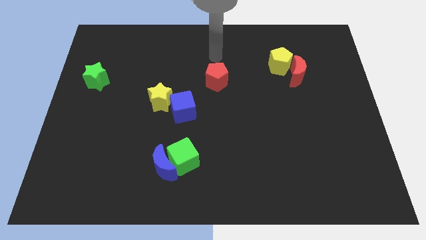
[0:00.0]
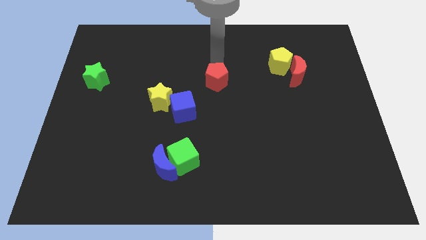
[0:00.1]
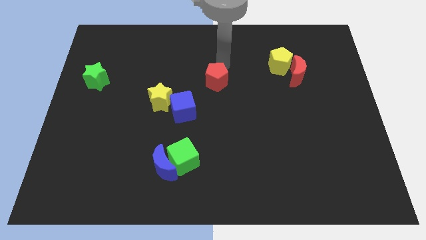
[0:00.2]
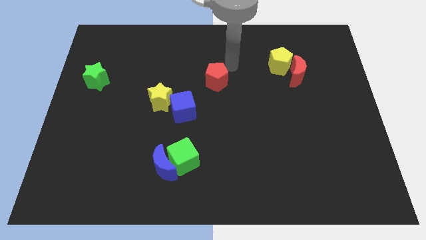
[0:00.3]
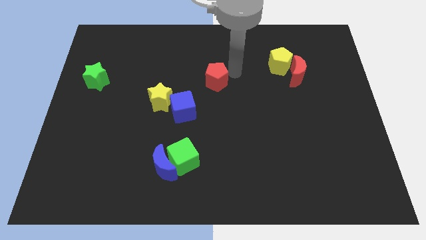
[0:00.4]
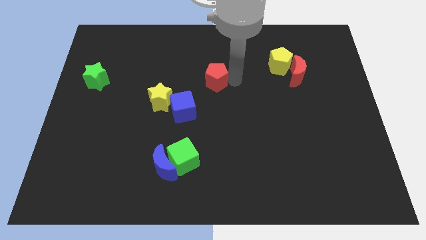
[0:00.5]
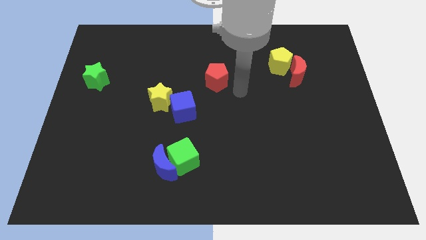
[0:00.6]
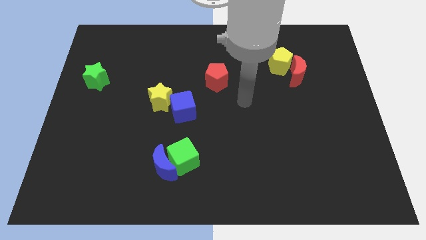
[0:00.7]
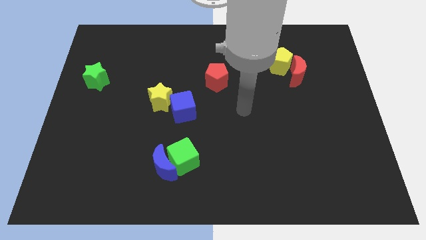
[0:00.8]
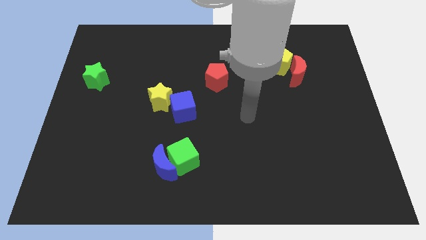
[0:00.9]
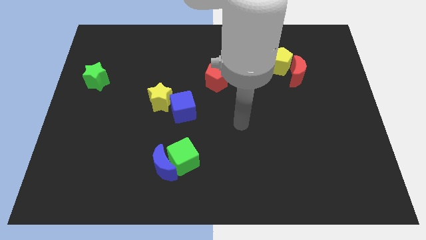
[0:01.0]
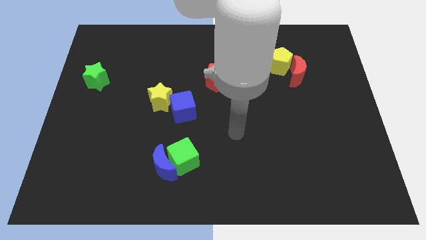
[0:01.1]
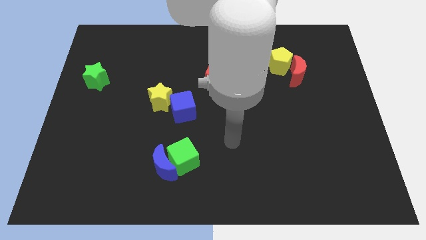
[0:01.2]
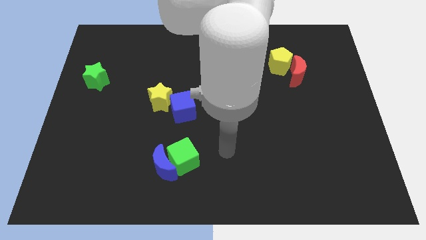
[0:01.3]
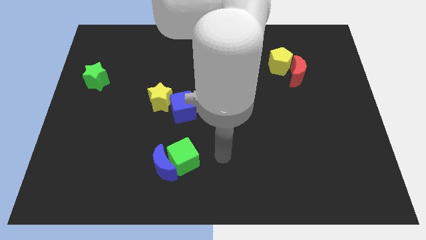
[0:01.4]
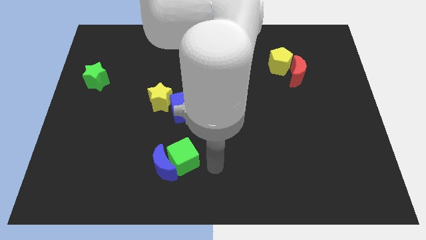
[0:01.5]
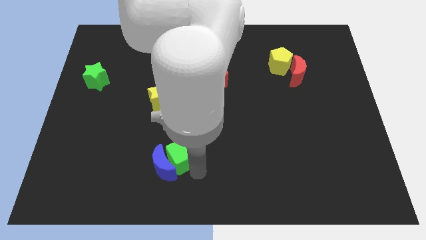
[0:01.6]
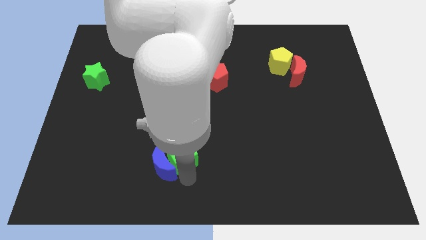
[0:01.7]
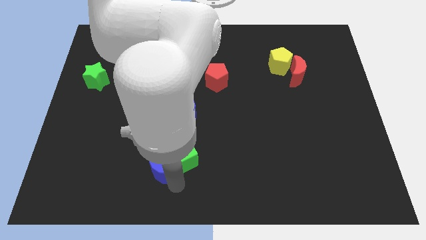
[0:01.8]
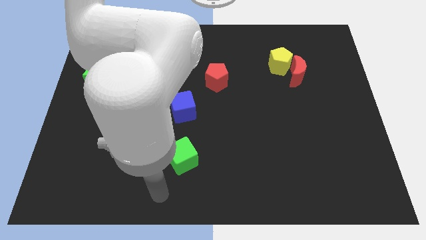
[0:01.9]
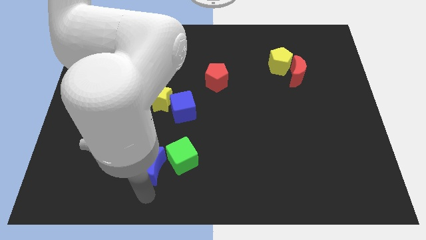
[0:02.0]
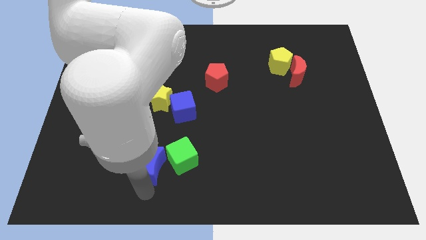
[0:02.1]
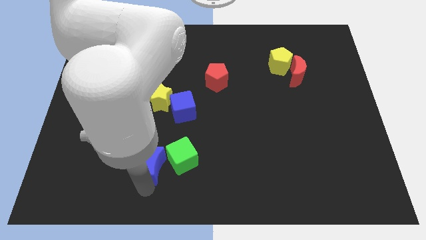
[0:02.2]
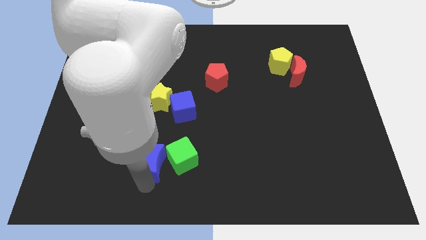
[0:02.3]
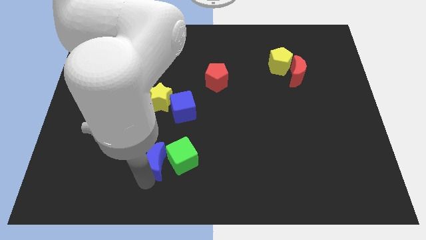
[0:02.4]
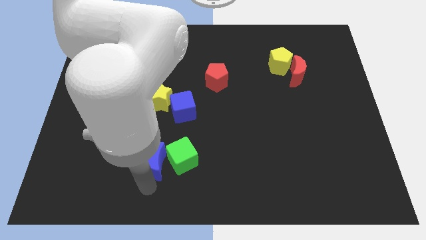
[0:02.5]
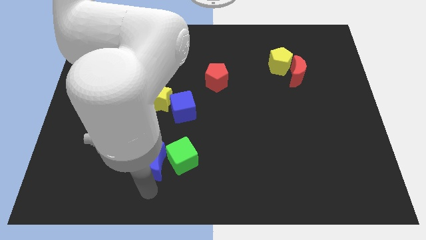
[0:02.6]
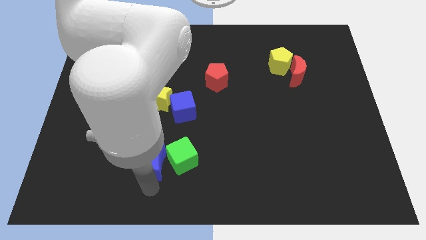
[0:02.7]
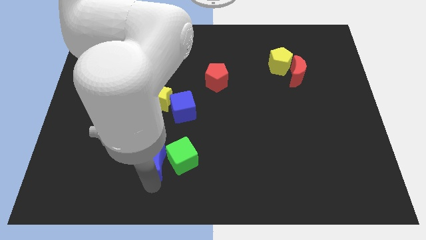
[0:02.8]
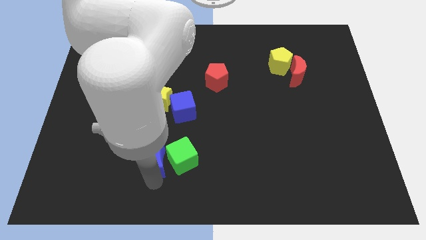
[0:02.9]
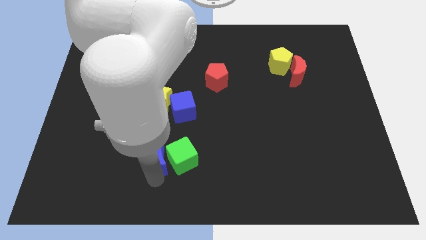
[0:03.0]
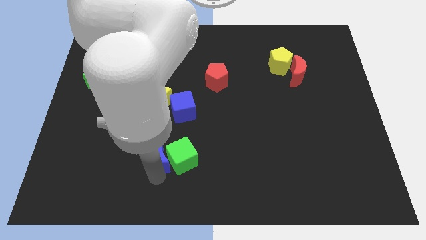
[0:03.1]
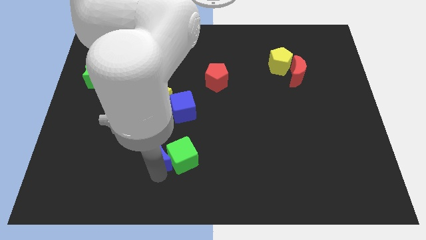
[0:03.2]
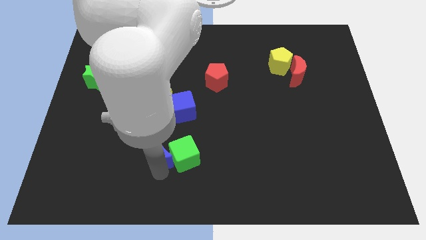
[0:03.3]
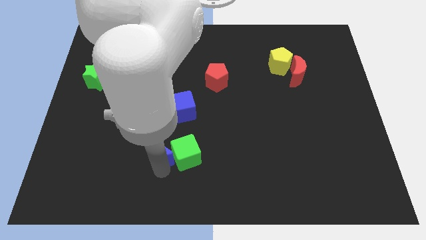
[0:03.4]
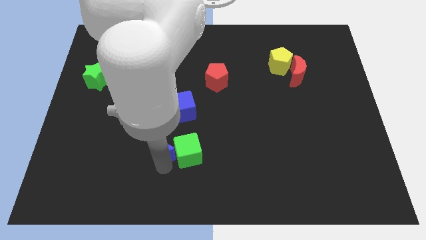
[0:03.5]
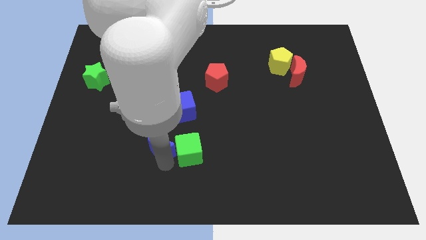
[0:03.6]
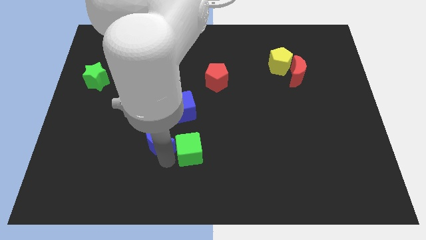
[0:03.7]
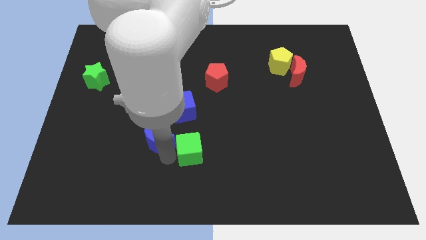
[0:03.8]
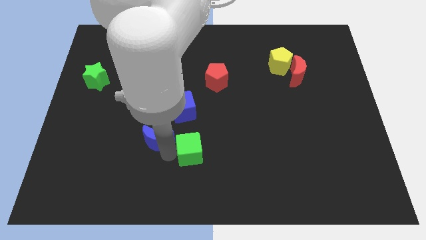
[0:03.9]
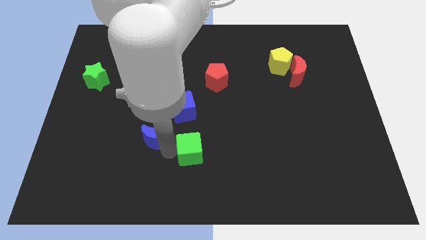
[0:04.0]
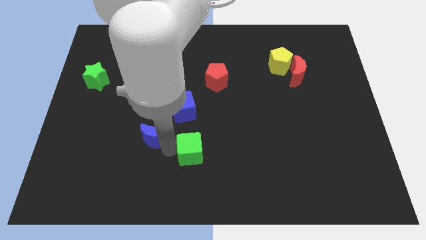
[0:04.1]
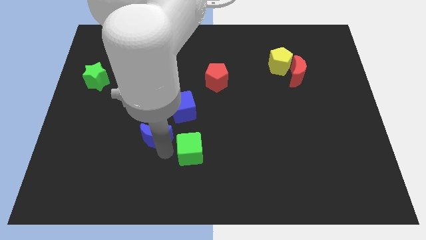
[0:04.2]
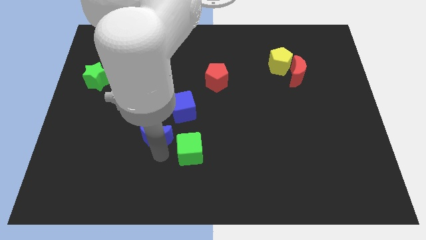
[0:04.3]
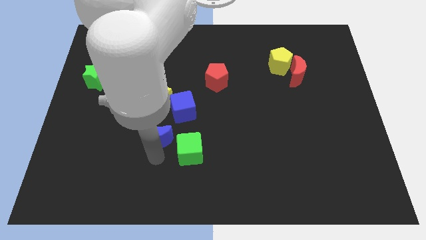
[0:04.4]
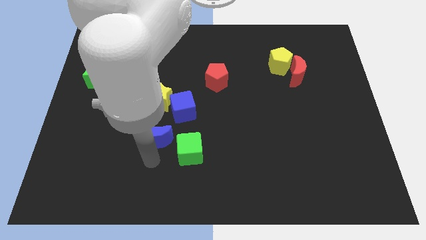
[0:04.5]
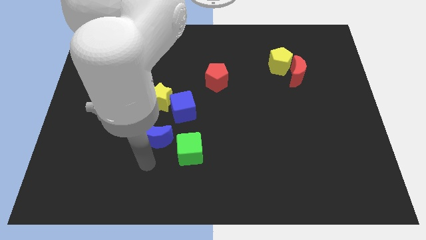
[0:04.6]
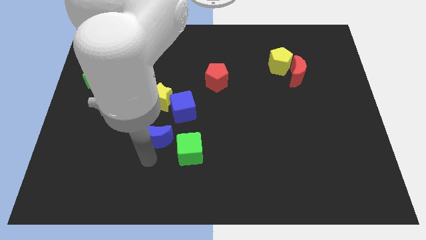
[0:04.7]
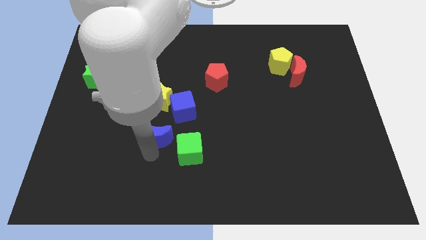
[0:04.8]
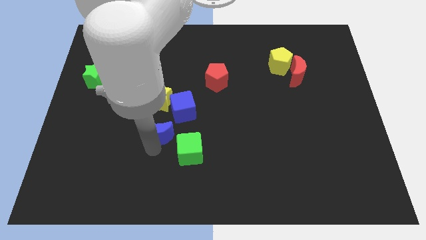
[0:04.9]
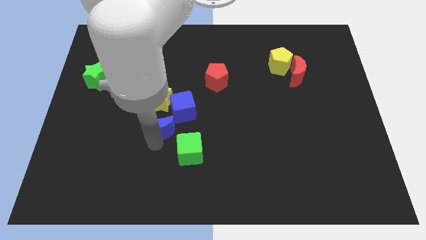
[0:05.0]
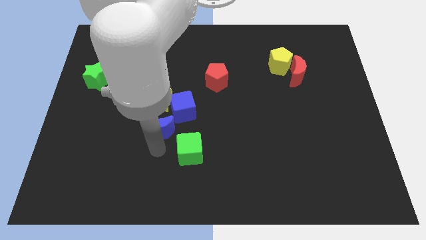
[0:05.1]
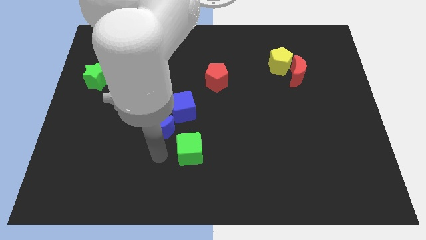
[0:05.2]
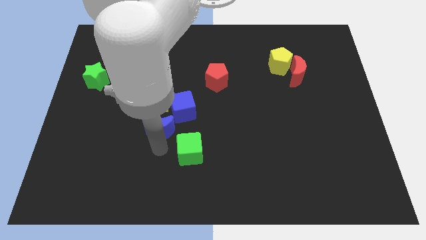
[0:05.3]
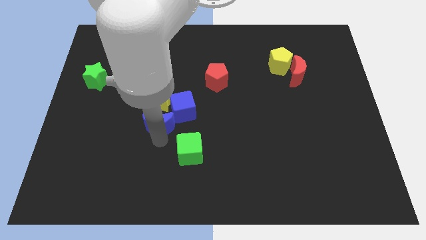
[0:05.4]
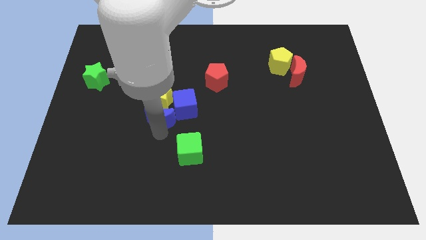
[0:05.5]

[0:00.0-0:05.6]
put the blue moon close to the yellow star

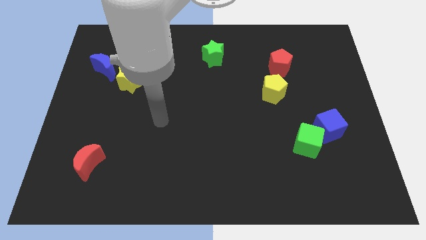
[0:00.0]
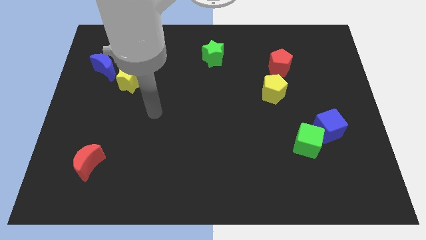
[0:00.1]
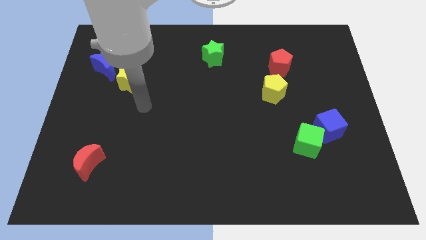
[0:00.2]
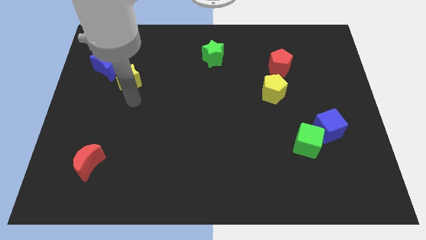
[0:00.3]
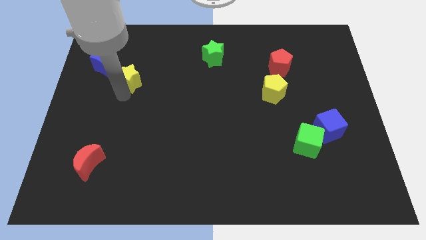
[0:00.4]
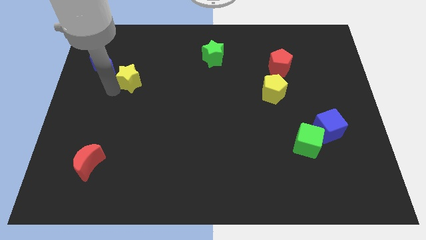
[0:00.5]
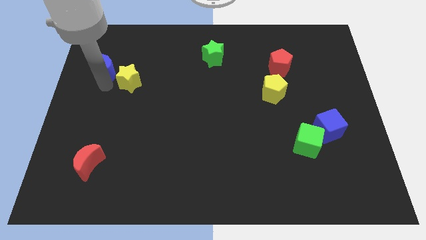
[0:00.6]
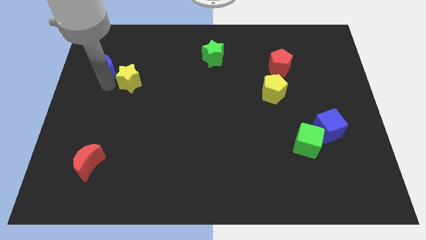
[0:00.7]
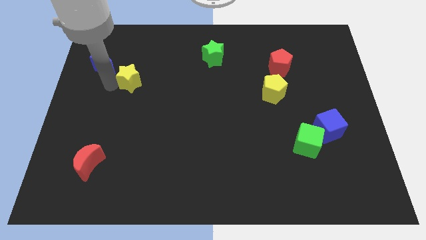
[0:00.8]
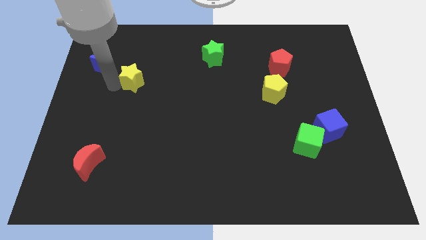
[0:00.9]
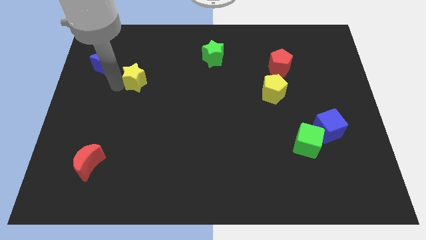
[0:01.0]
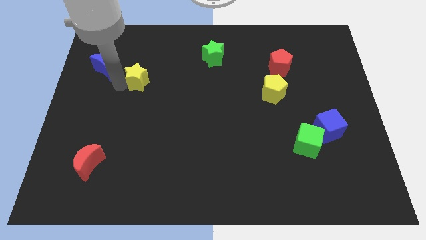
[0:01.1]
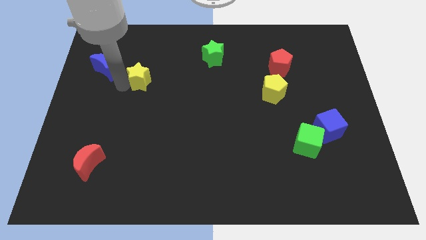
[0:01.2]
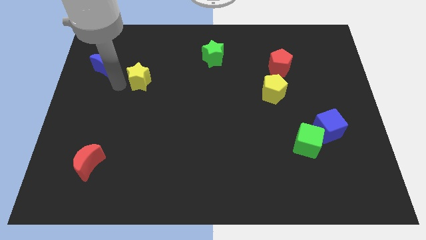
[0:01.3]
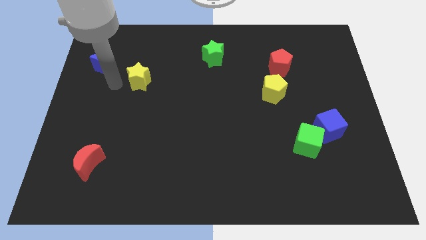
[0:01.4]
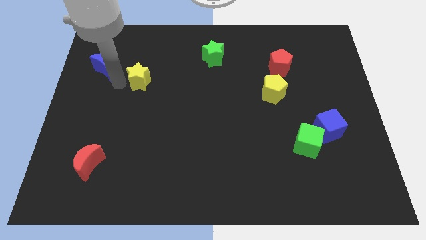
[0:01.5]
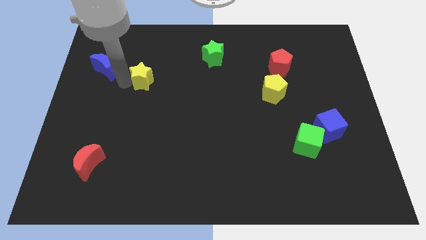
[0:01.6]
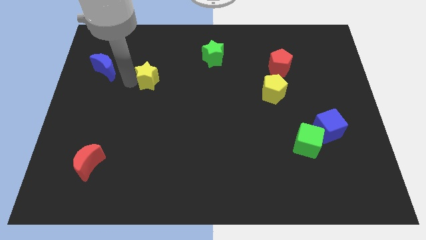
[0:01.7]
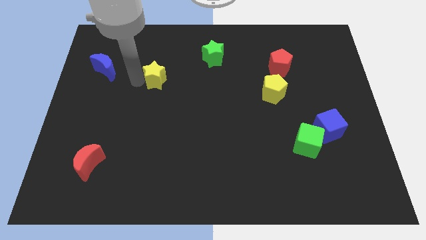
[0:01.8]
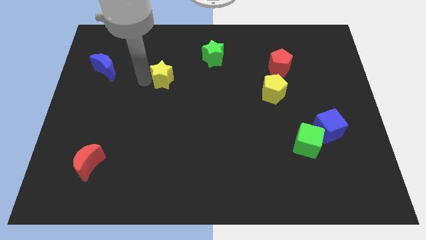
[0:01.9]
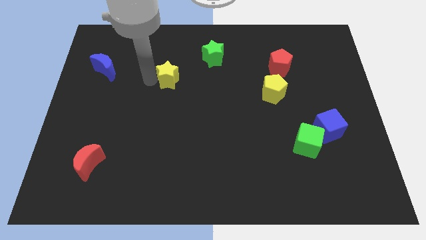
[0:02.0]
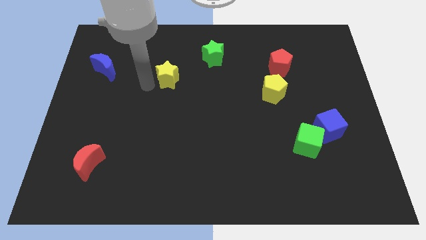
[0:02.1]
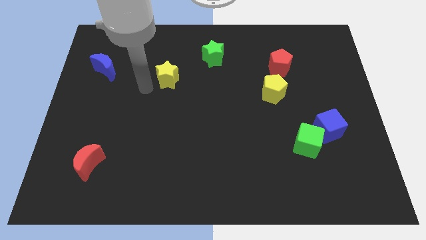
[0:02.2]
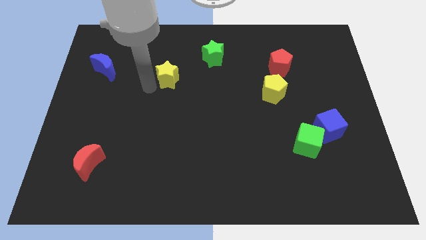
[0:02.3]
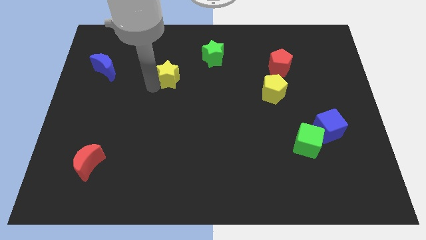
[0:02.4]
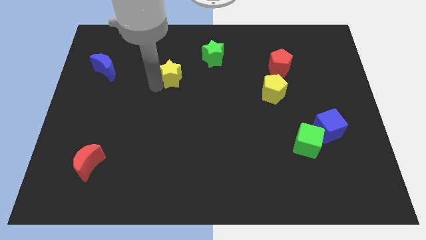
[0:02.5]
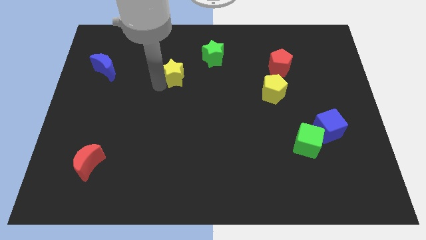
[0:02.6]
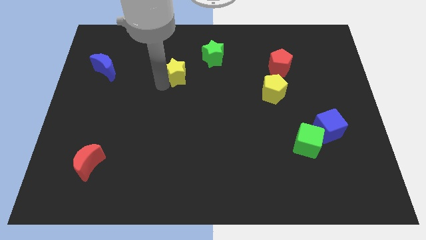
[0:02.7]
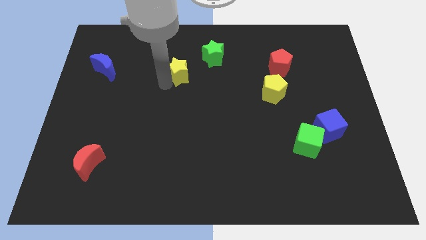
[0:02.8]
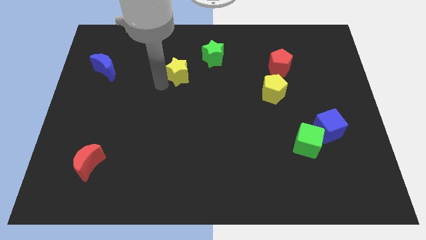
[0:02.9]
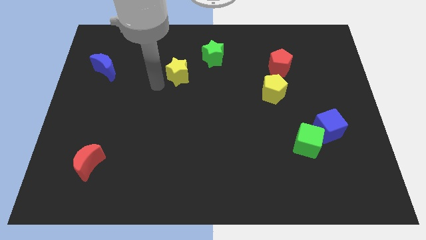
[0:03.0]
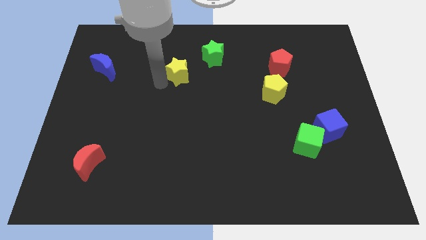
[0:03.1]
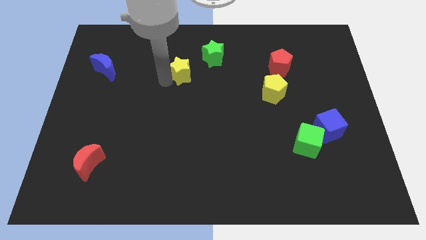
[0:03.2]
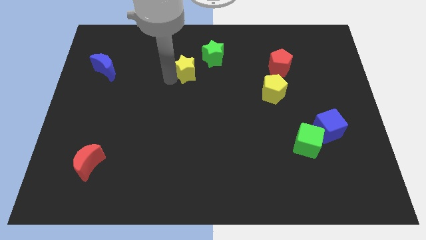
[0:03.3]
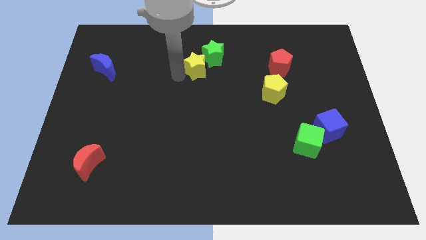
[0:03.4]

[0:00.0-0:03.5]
move the yellow star to the green star
